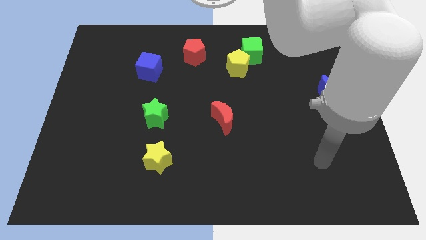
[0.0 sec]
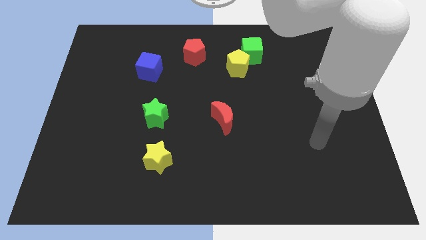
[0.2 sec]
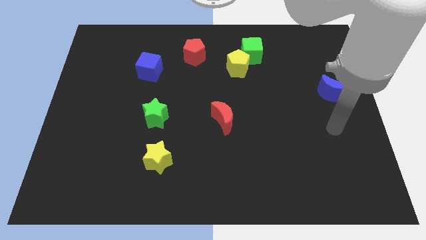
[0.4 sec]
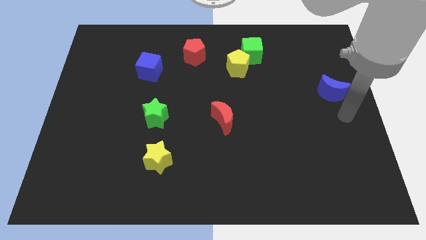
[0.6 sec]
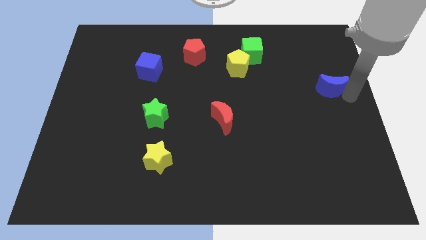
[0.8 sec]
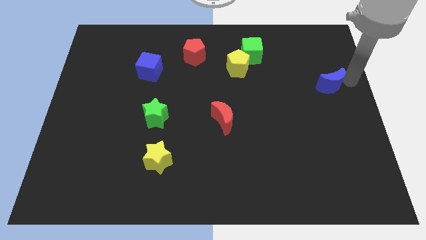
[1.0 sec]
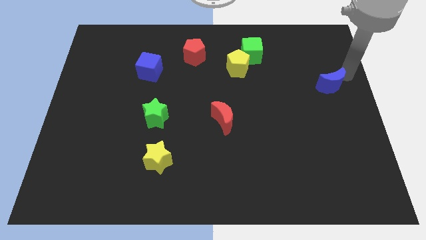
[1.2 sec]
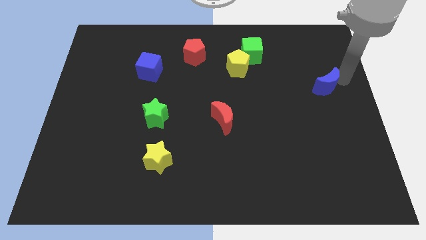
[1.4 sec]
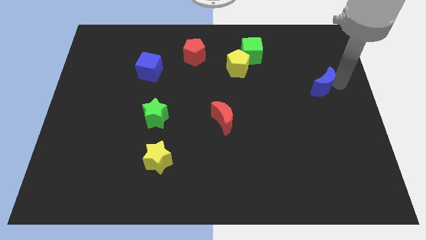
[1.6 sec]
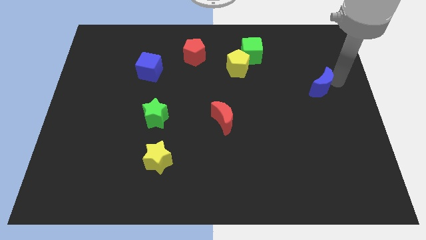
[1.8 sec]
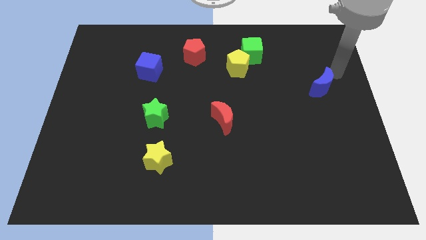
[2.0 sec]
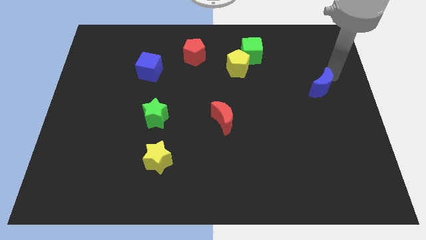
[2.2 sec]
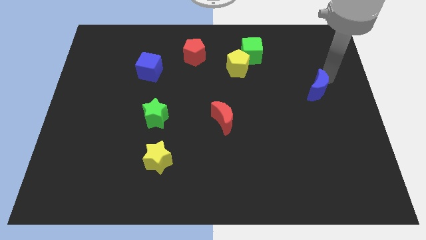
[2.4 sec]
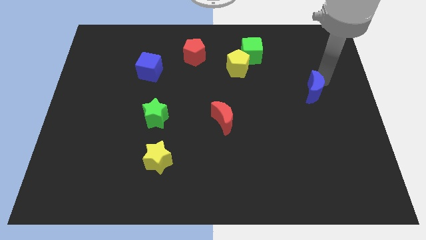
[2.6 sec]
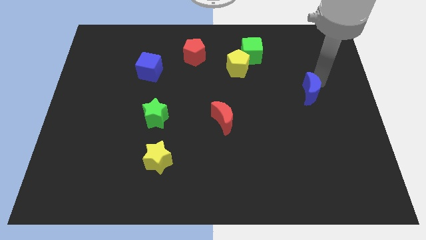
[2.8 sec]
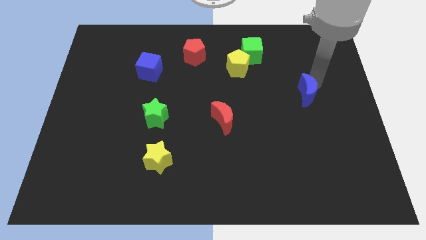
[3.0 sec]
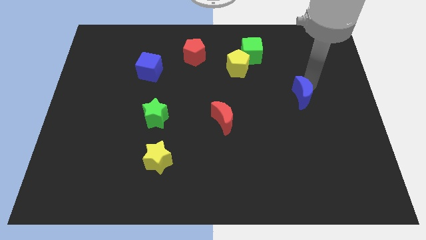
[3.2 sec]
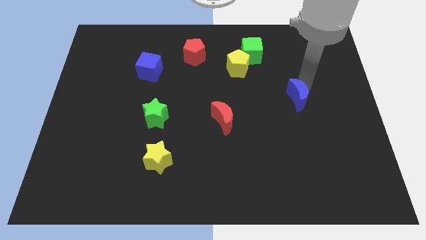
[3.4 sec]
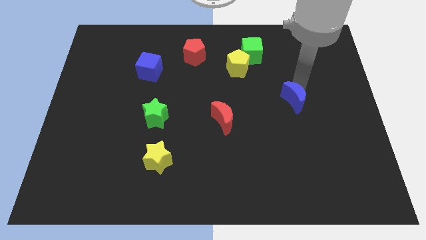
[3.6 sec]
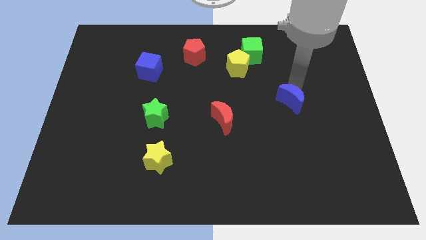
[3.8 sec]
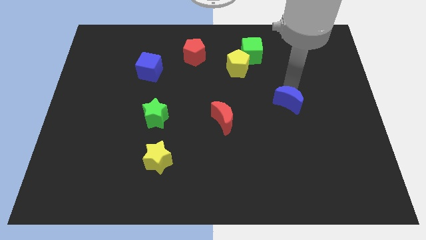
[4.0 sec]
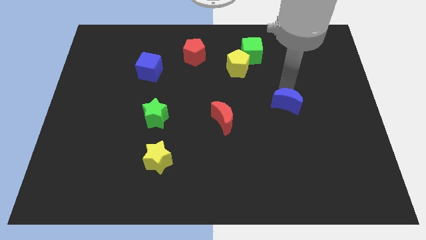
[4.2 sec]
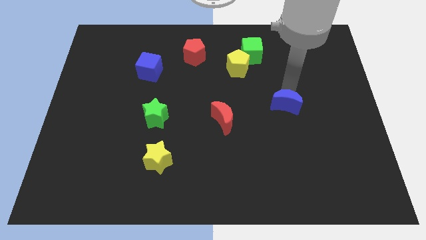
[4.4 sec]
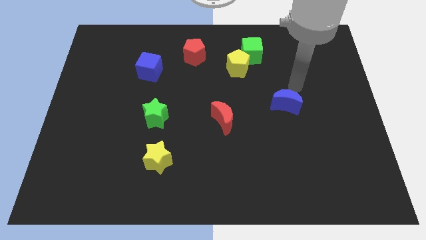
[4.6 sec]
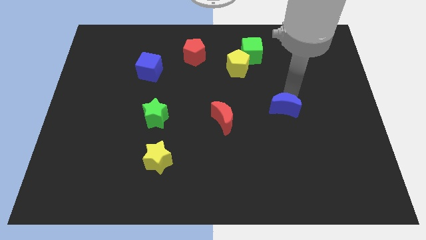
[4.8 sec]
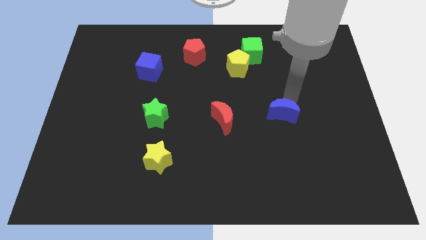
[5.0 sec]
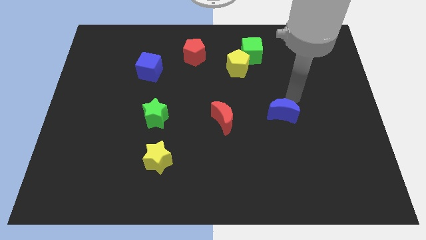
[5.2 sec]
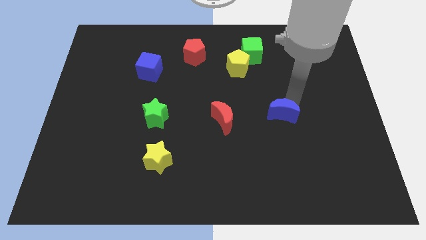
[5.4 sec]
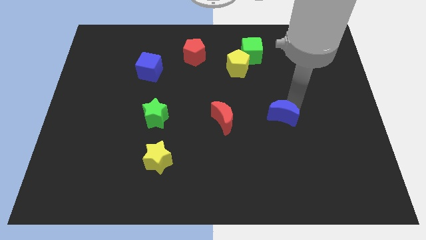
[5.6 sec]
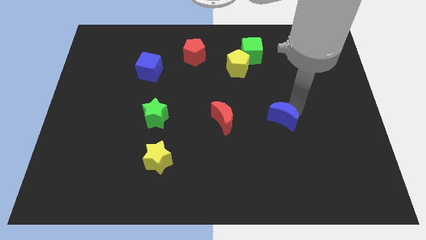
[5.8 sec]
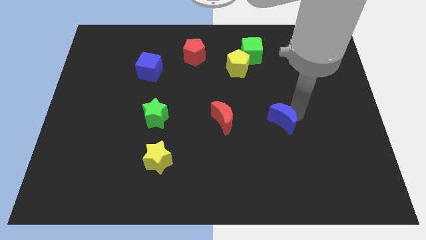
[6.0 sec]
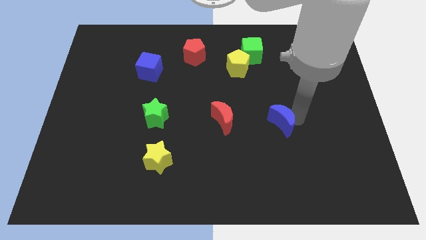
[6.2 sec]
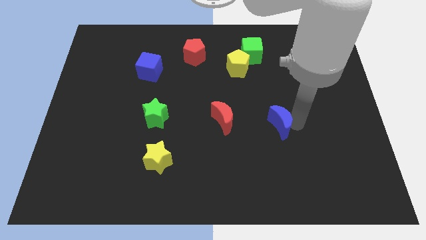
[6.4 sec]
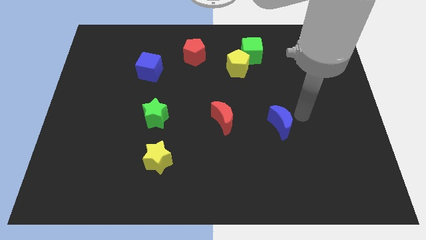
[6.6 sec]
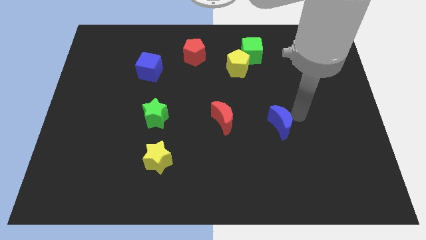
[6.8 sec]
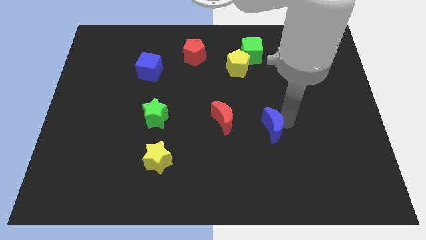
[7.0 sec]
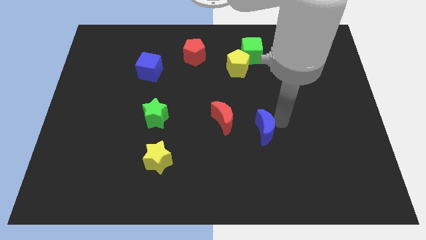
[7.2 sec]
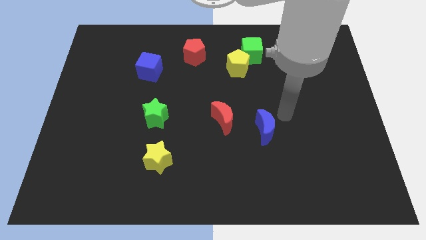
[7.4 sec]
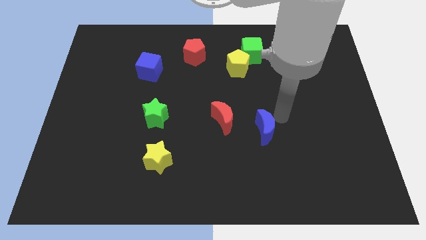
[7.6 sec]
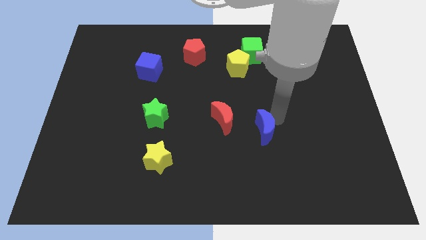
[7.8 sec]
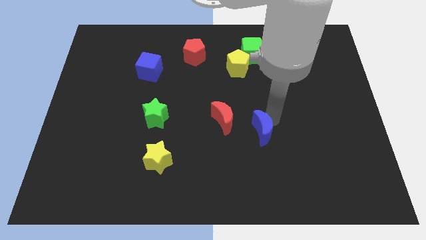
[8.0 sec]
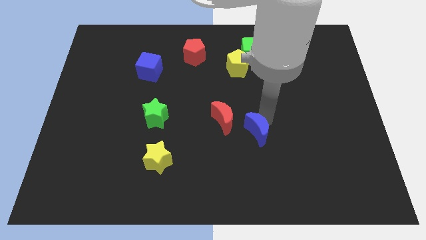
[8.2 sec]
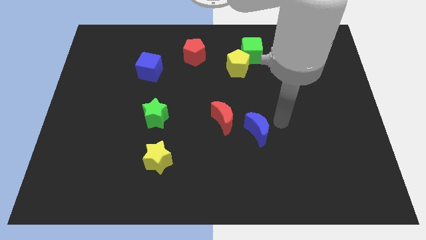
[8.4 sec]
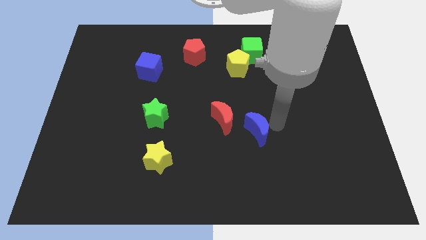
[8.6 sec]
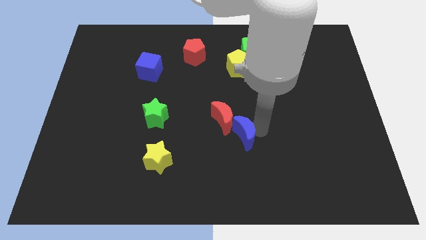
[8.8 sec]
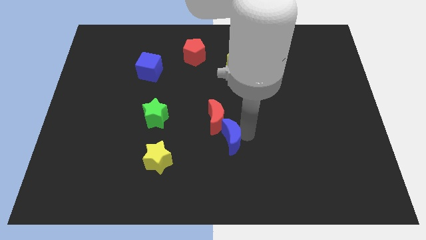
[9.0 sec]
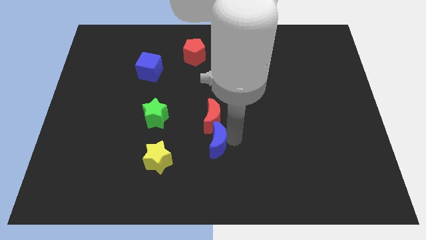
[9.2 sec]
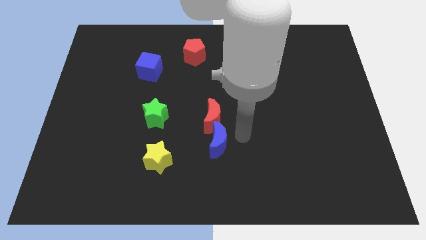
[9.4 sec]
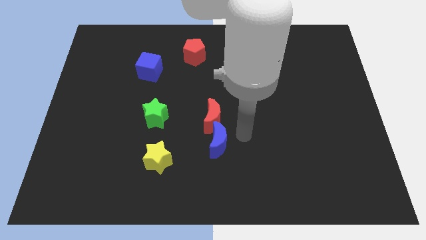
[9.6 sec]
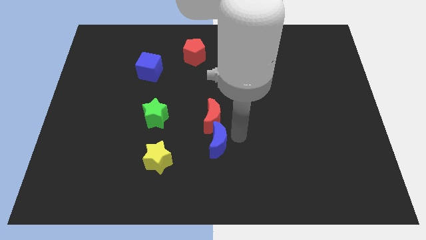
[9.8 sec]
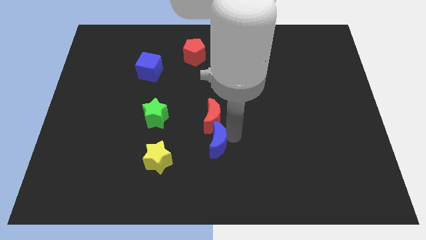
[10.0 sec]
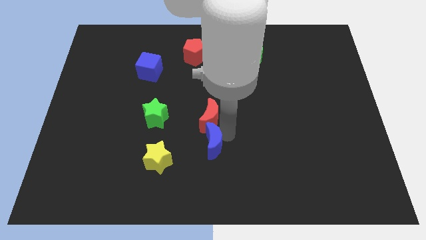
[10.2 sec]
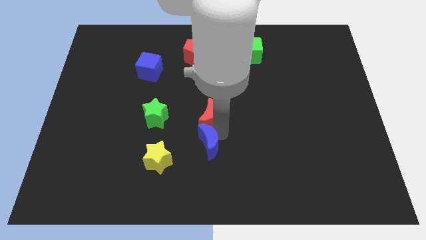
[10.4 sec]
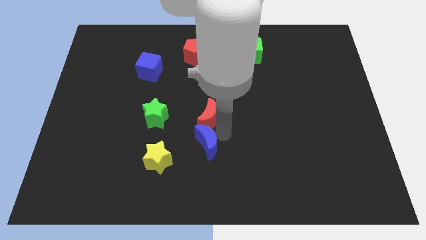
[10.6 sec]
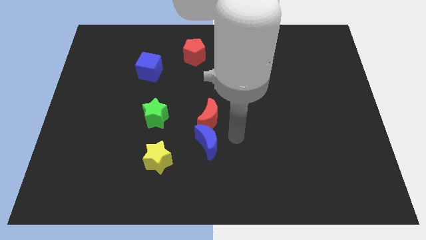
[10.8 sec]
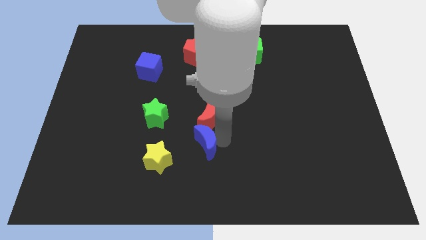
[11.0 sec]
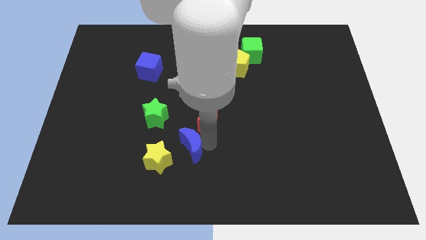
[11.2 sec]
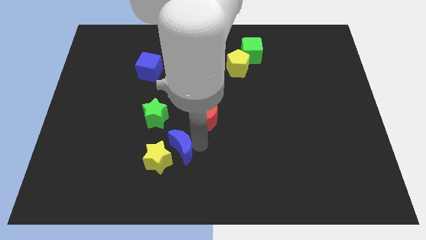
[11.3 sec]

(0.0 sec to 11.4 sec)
push the blue moon towards the yellow star
